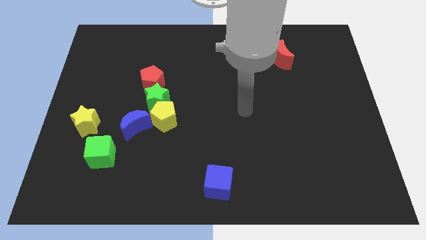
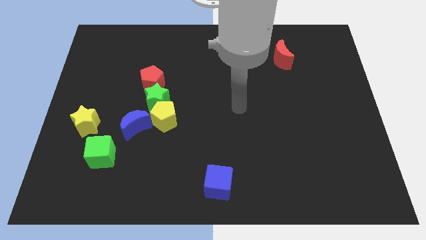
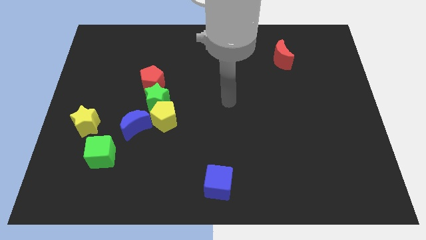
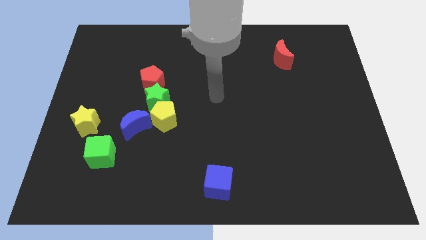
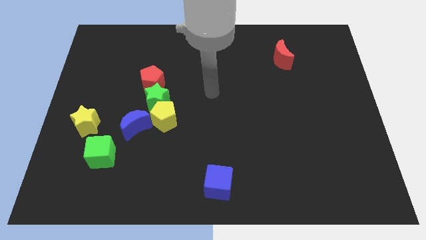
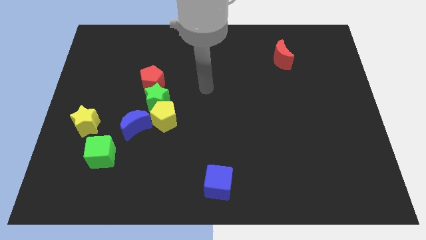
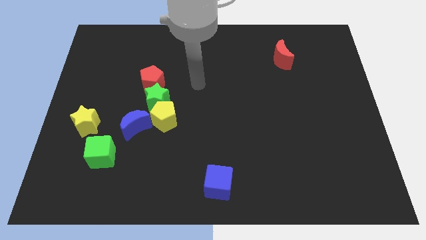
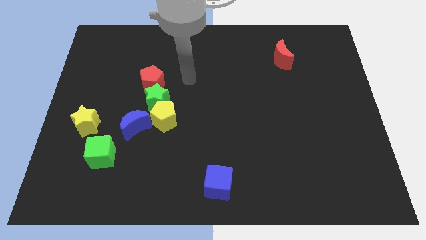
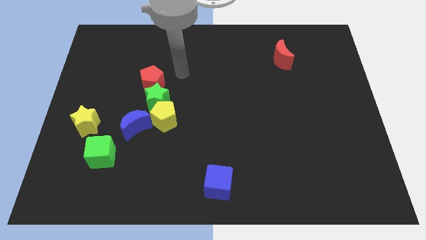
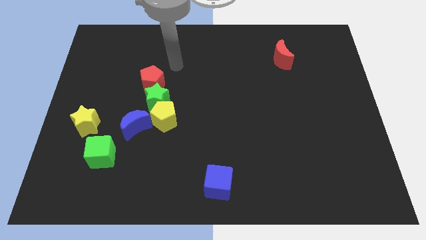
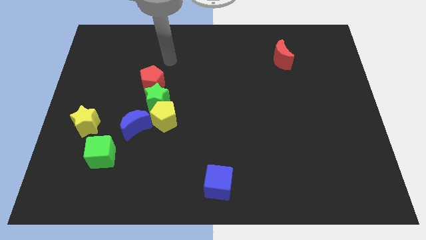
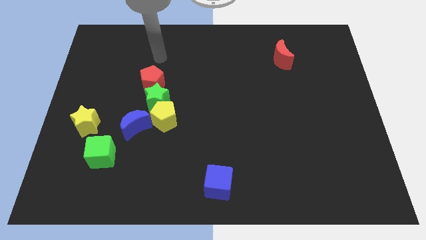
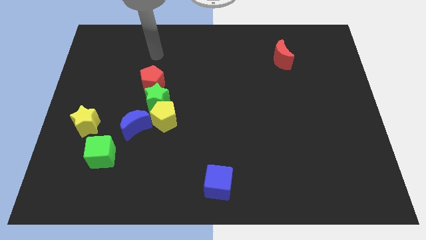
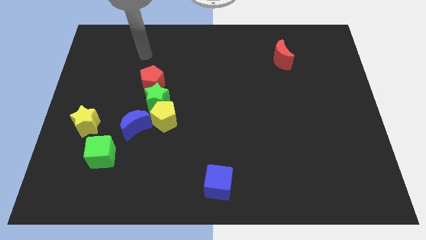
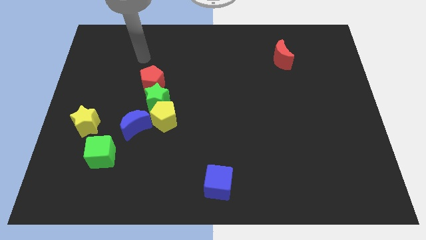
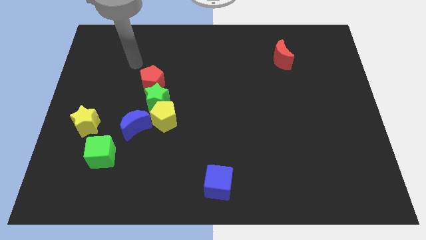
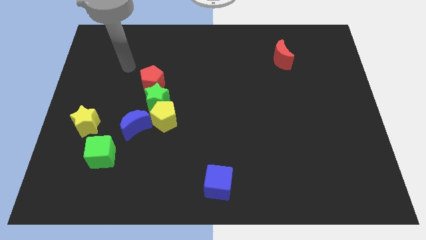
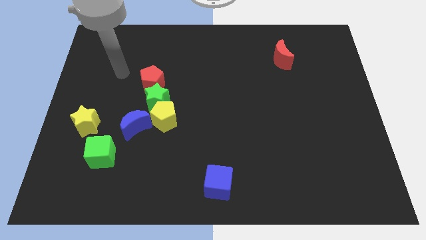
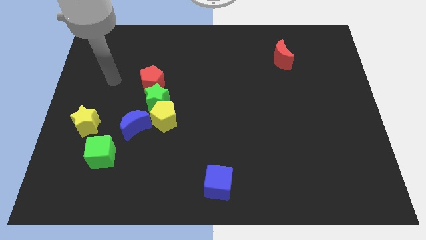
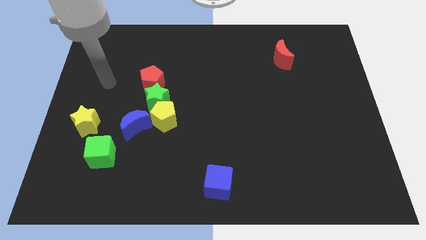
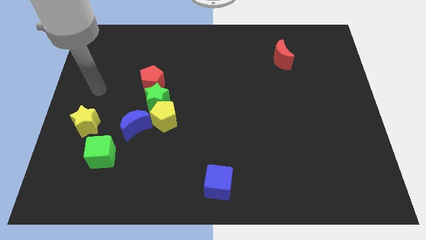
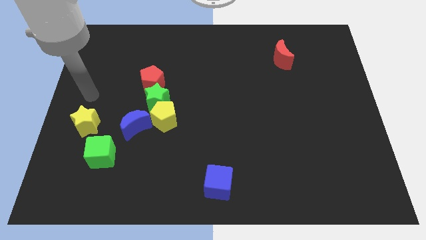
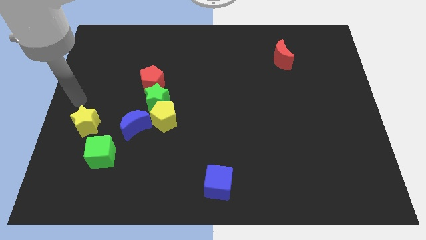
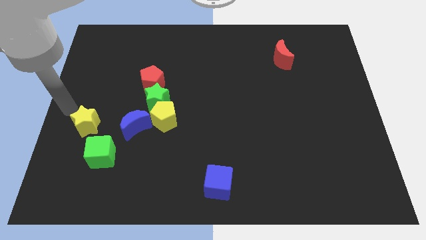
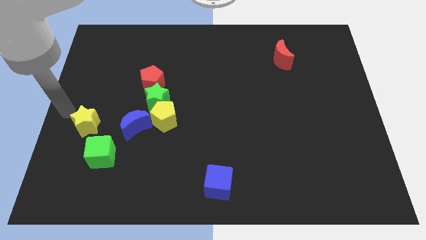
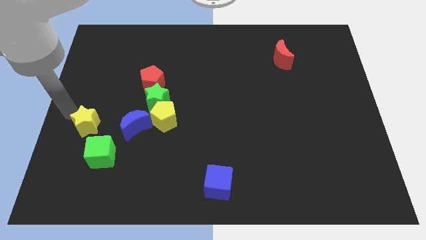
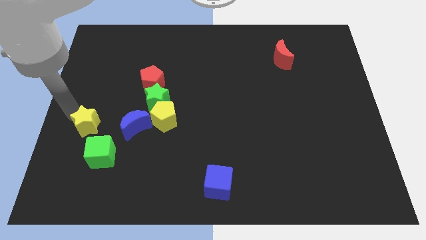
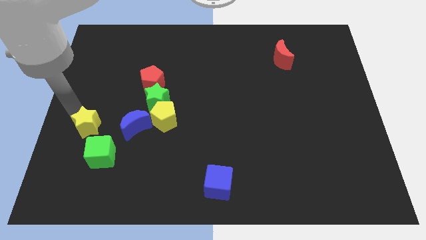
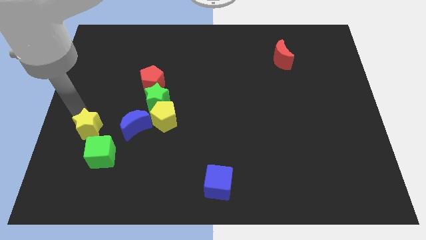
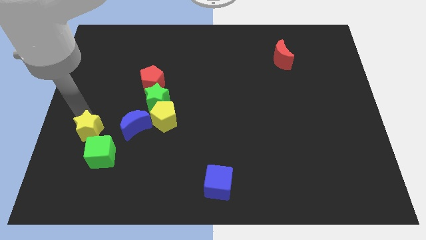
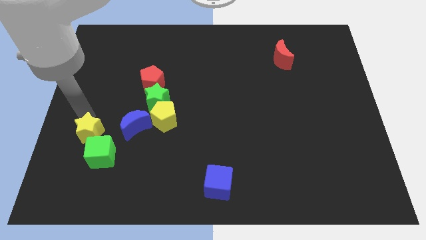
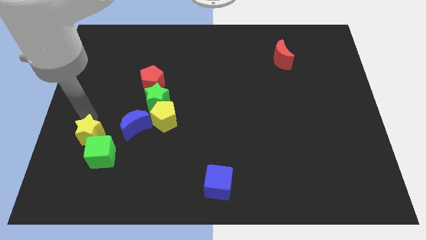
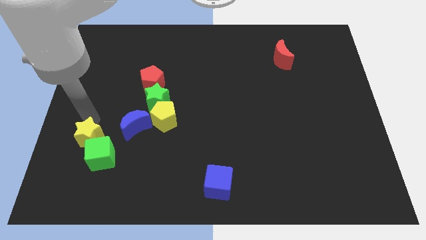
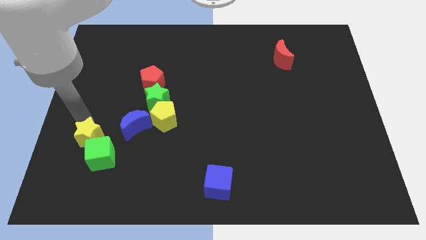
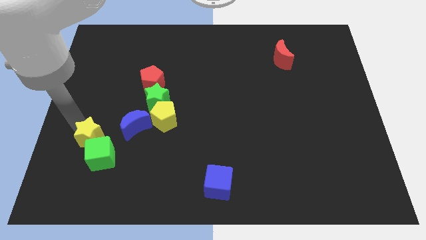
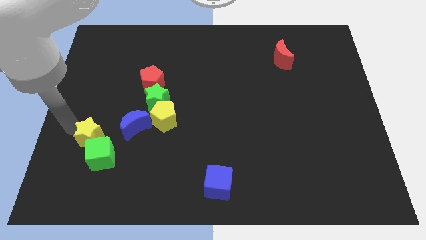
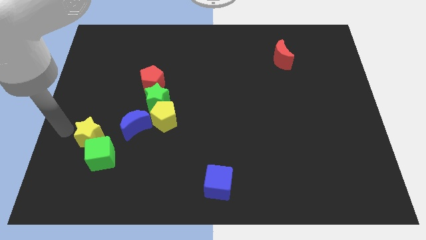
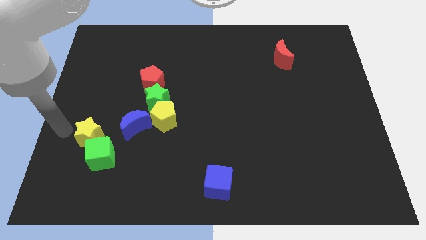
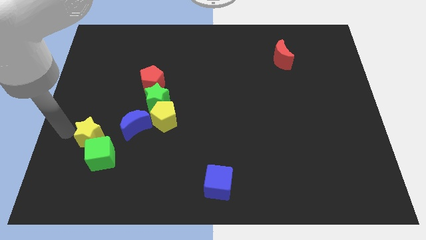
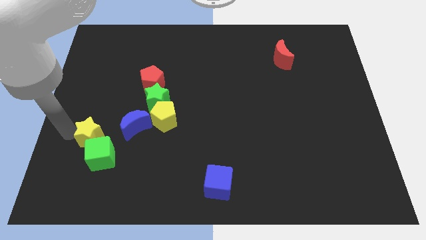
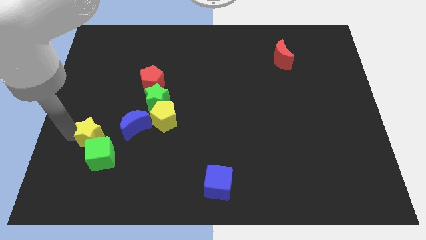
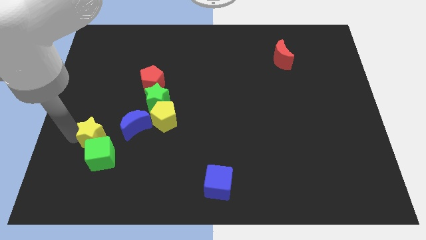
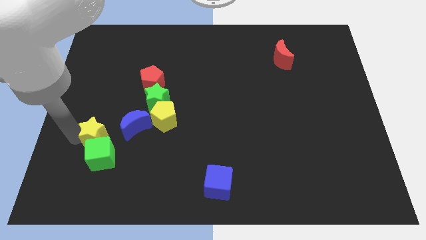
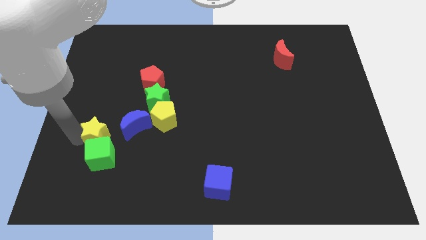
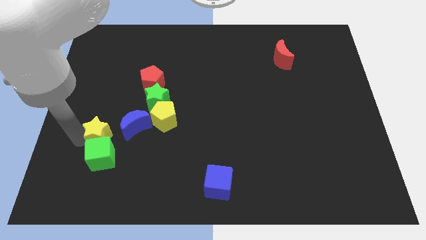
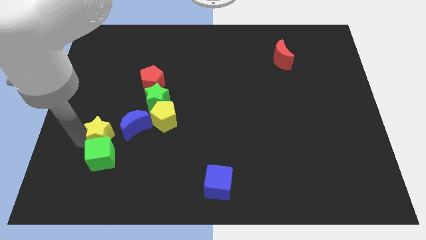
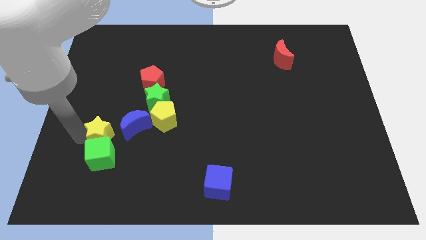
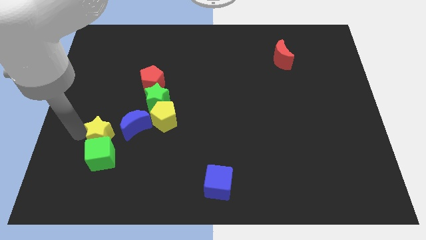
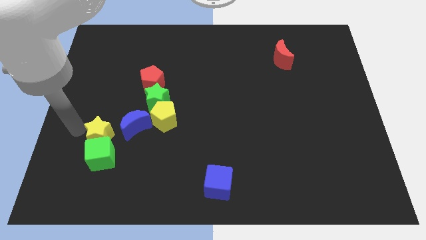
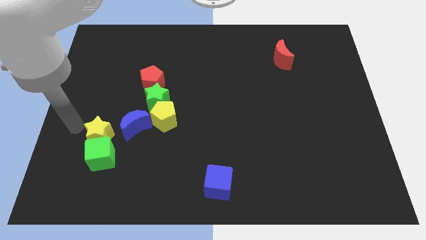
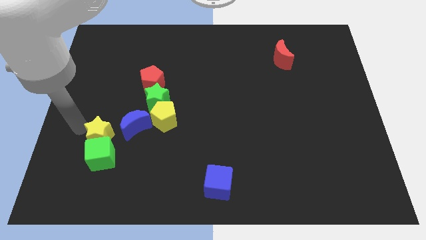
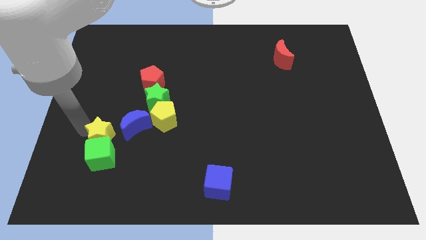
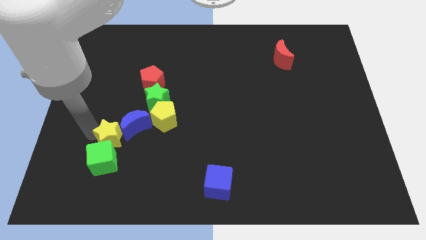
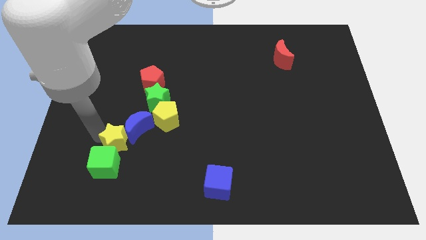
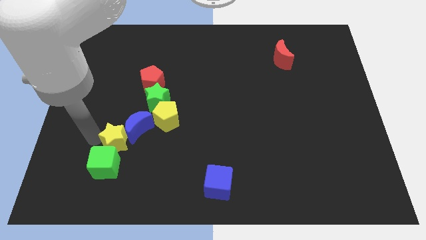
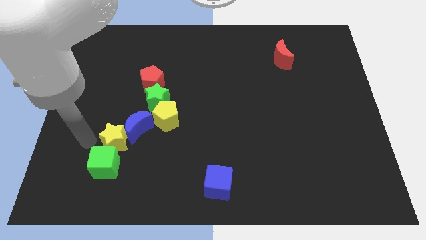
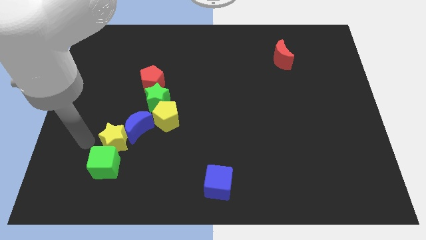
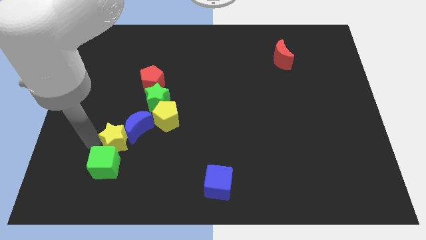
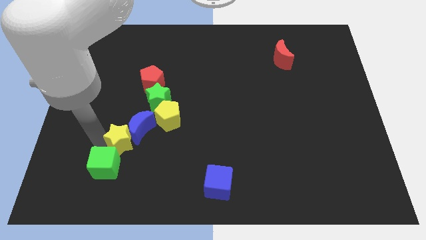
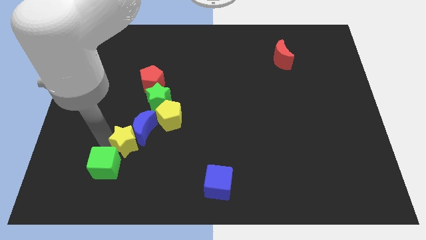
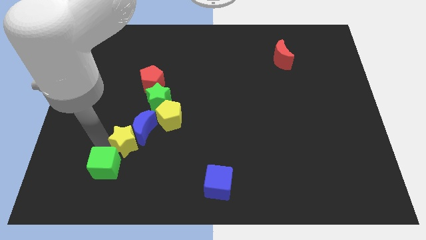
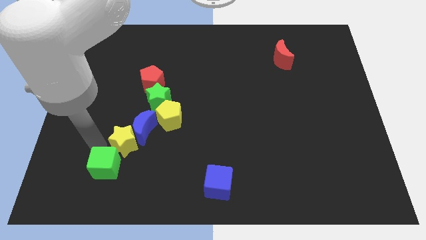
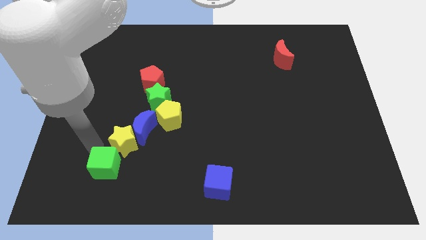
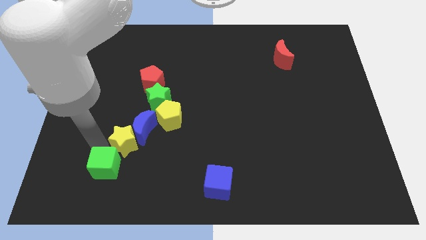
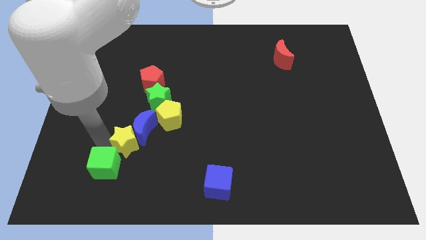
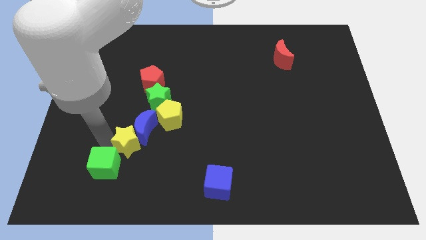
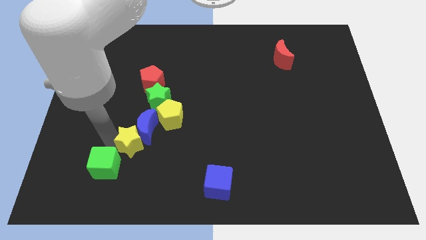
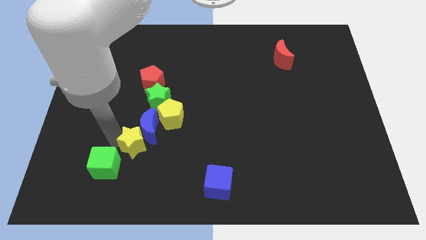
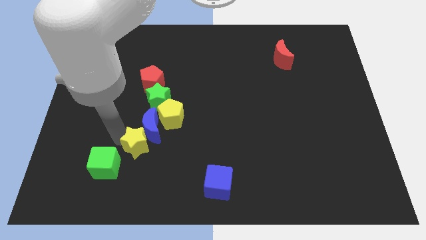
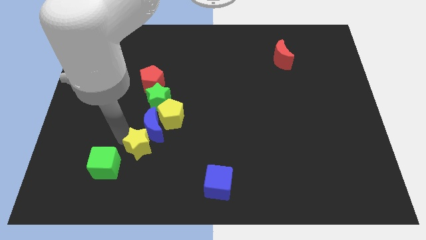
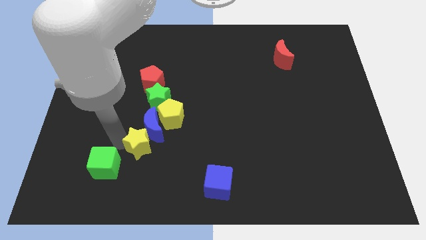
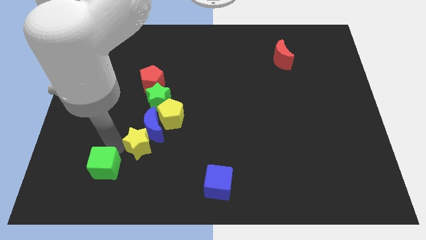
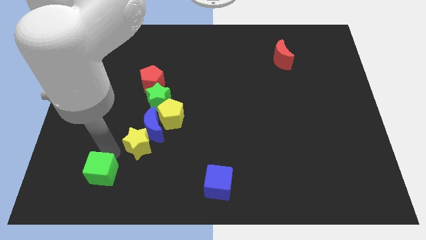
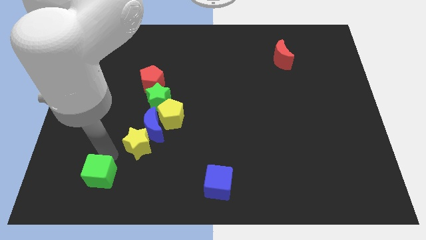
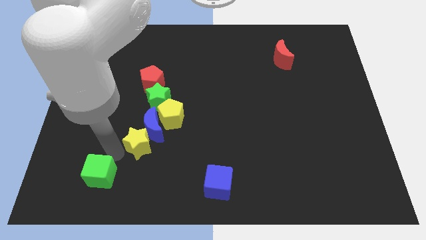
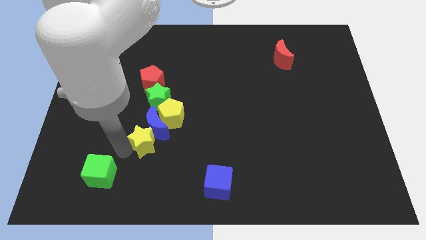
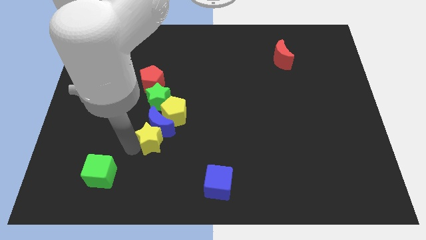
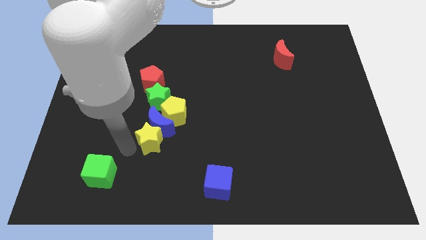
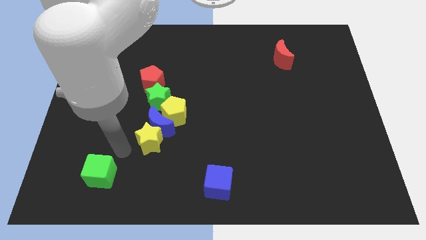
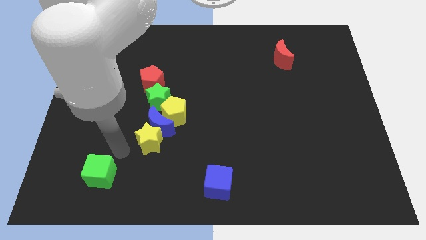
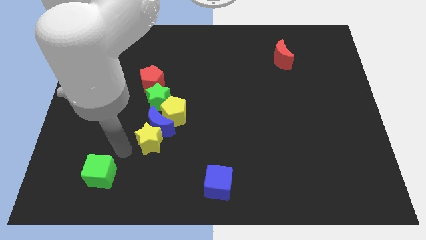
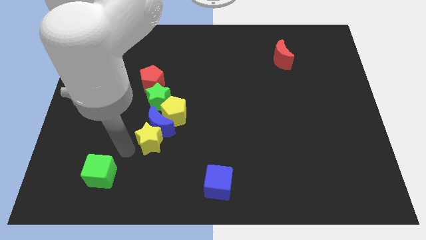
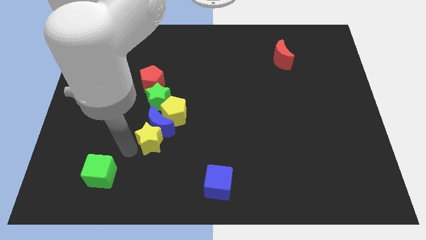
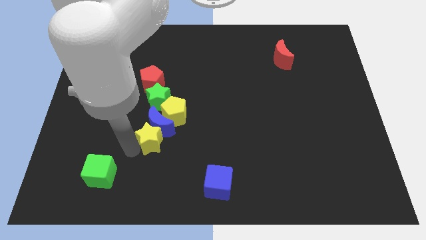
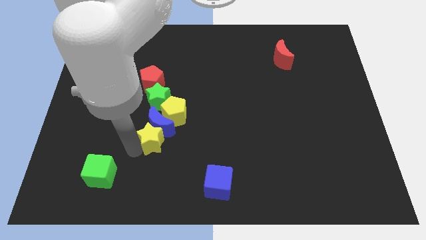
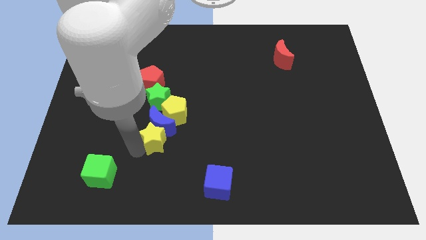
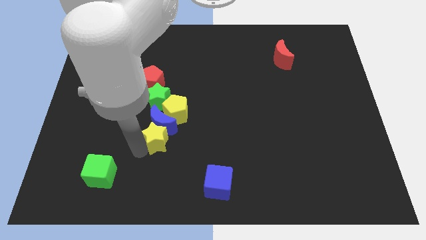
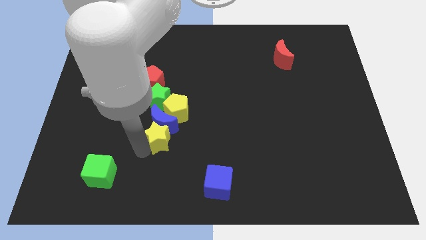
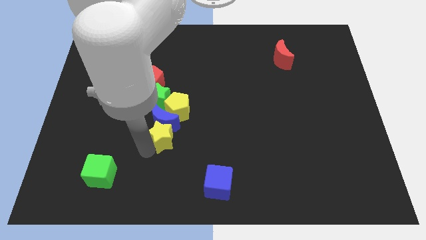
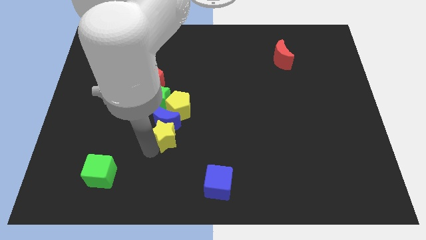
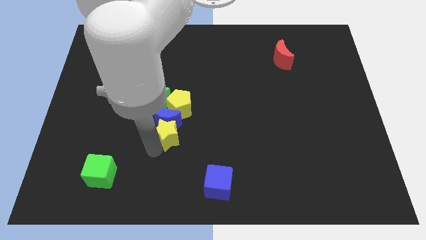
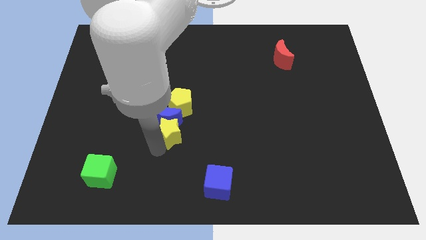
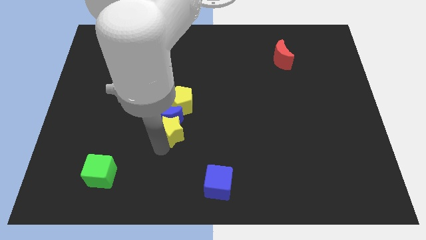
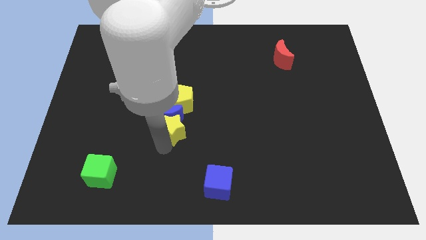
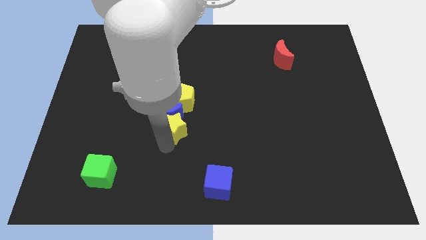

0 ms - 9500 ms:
move the yellow star right
